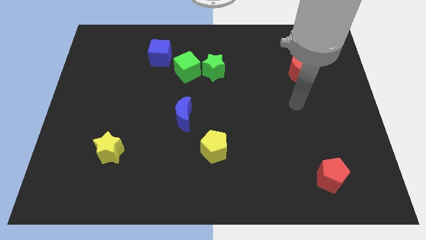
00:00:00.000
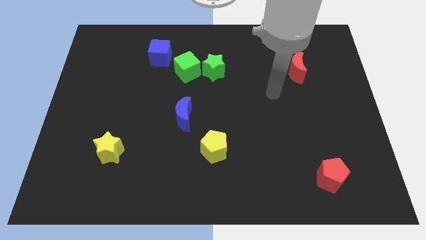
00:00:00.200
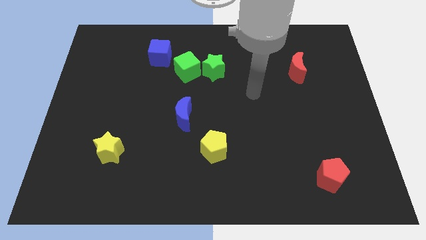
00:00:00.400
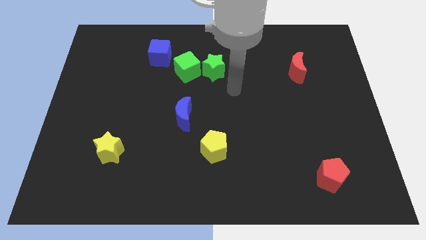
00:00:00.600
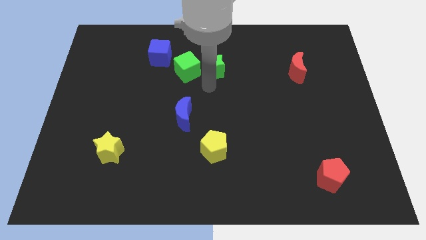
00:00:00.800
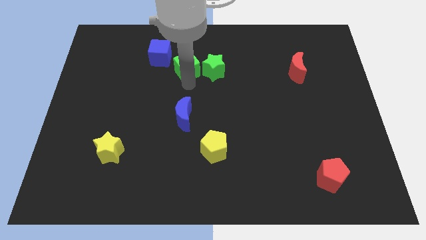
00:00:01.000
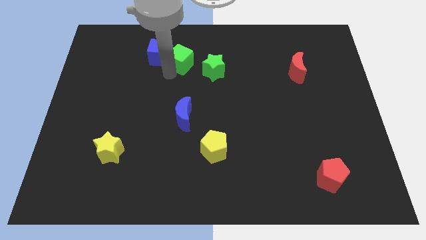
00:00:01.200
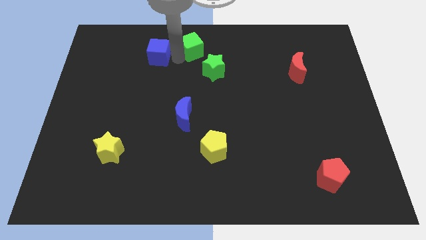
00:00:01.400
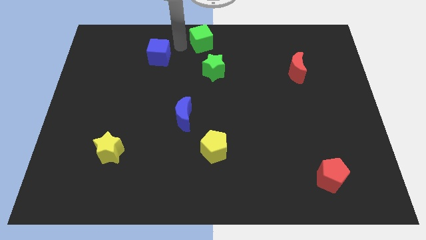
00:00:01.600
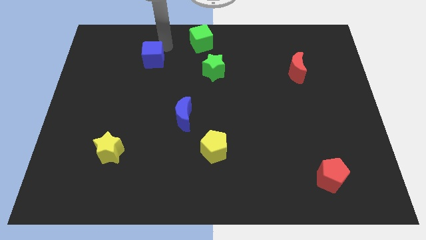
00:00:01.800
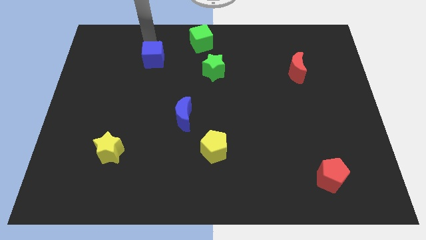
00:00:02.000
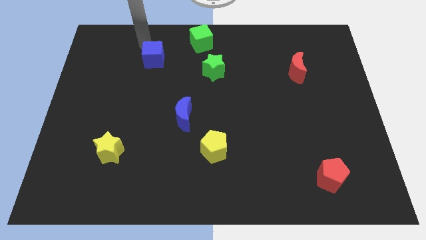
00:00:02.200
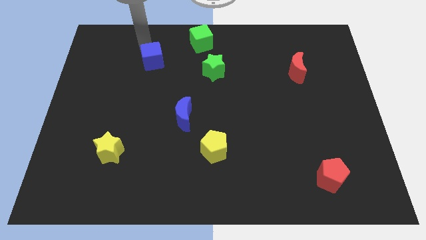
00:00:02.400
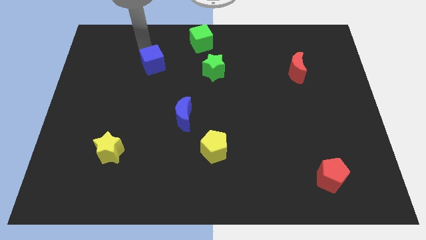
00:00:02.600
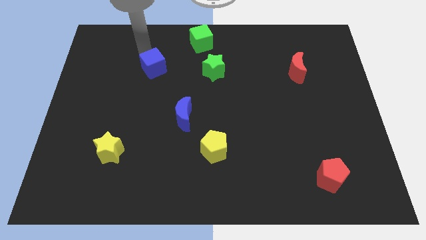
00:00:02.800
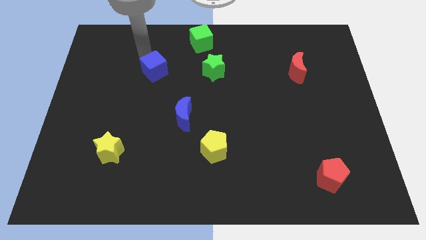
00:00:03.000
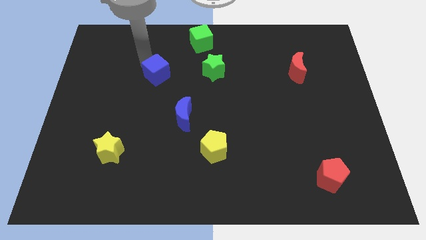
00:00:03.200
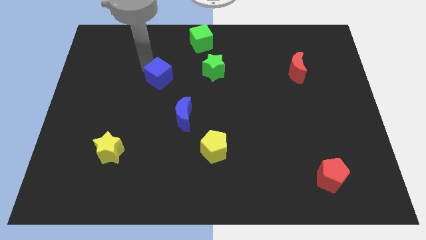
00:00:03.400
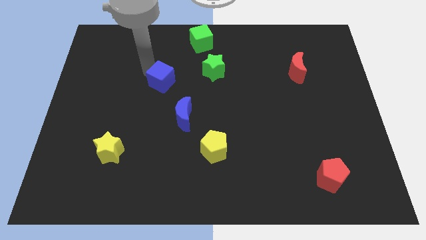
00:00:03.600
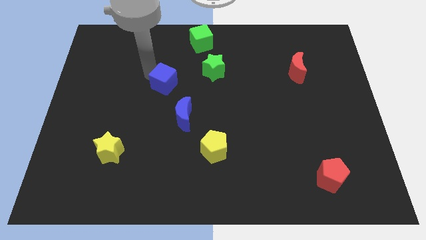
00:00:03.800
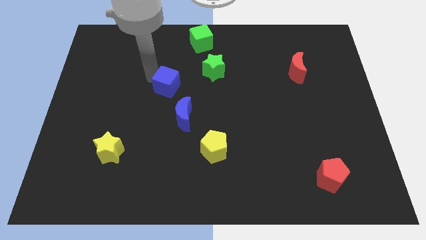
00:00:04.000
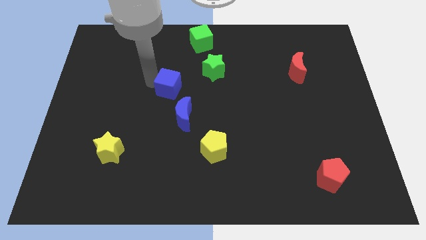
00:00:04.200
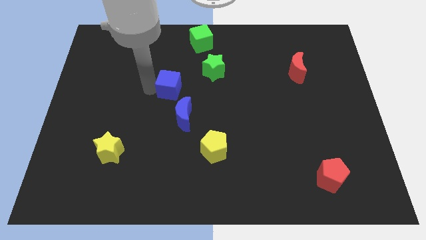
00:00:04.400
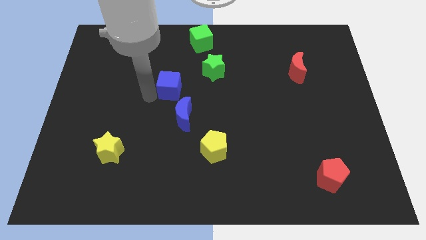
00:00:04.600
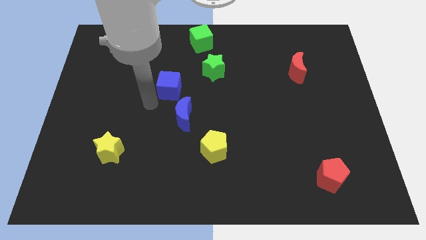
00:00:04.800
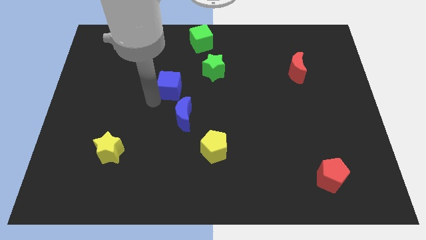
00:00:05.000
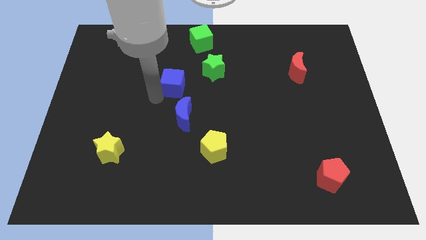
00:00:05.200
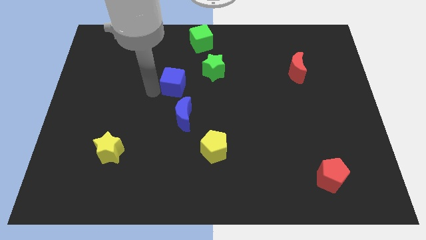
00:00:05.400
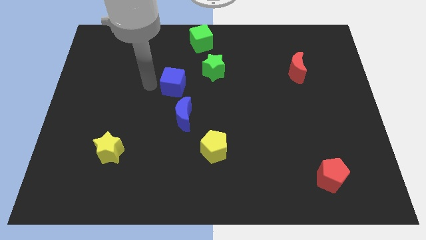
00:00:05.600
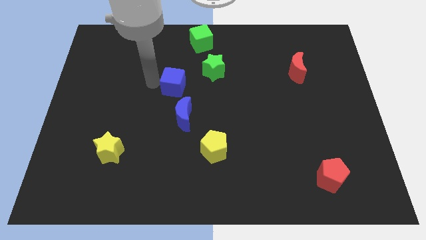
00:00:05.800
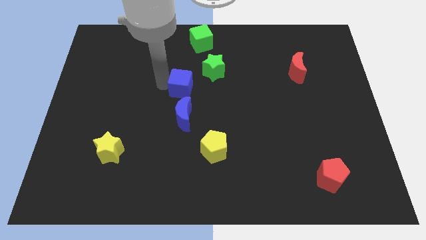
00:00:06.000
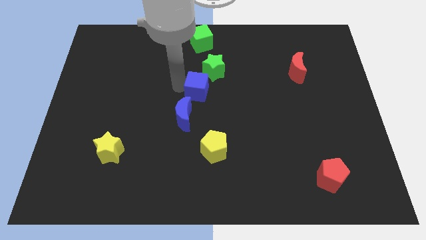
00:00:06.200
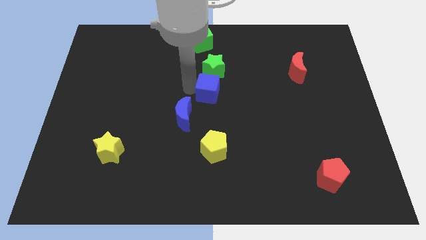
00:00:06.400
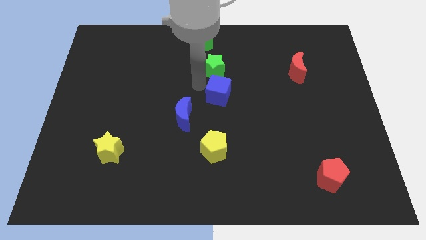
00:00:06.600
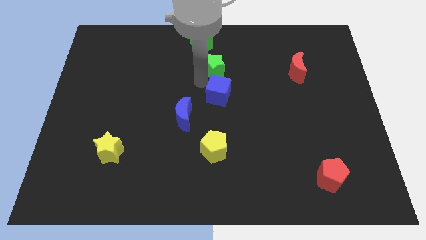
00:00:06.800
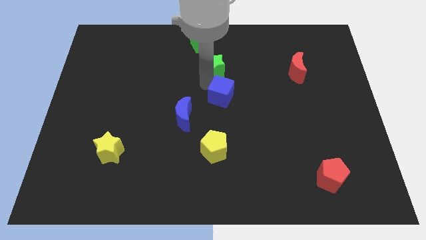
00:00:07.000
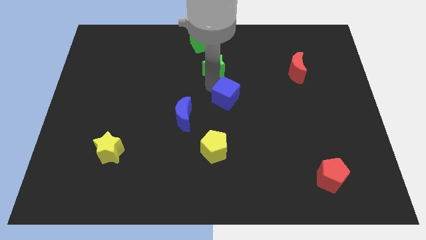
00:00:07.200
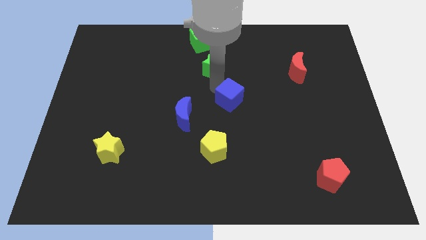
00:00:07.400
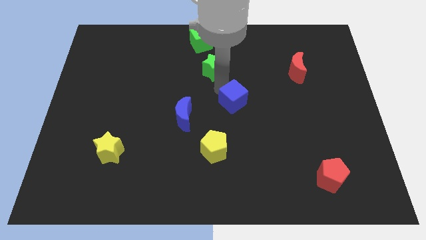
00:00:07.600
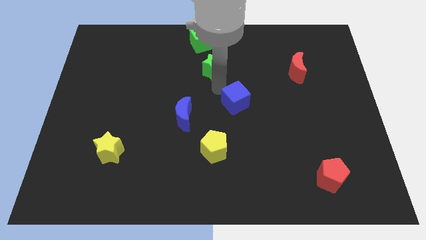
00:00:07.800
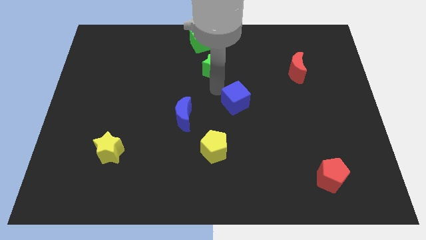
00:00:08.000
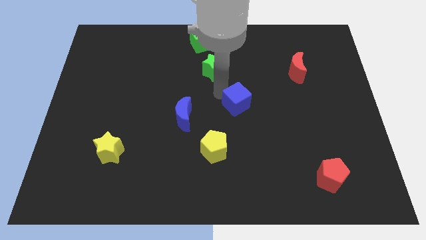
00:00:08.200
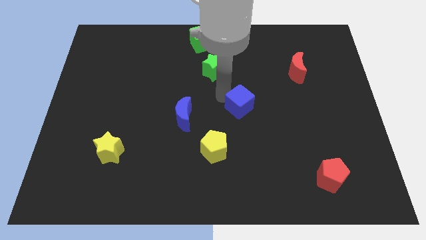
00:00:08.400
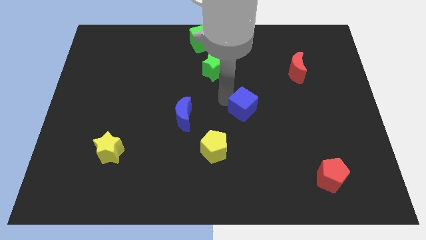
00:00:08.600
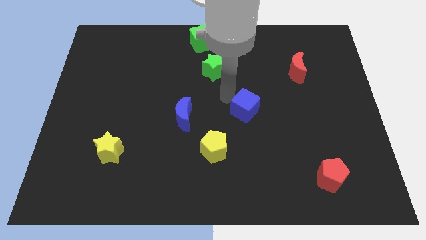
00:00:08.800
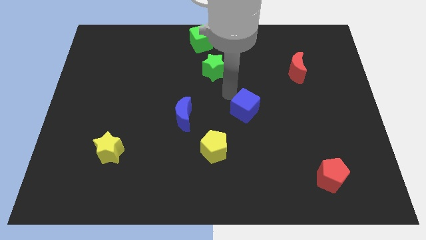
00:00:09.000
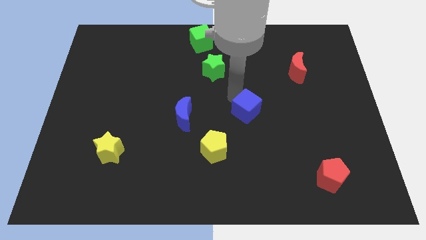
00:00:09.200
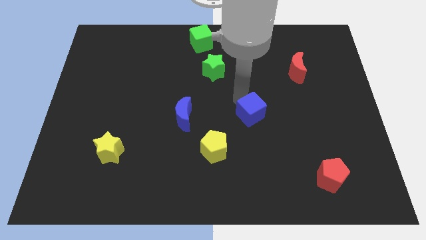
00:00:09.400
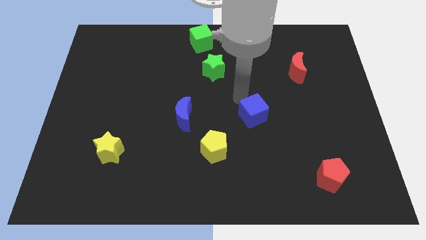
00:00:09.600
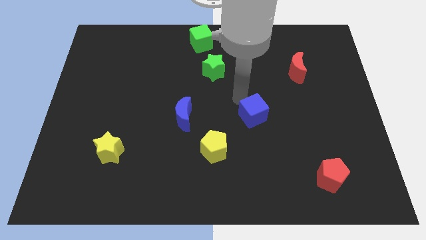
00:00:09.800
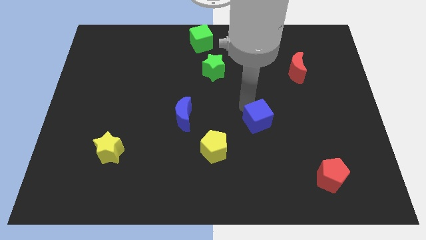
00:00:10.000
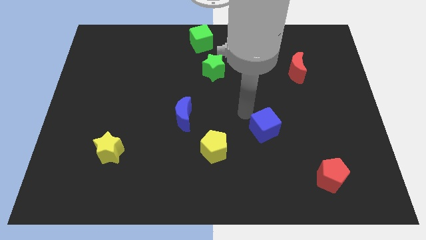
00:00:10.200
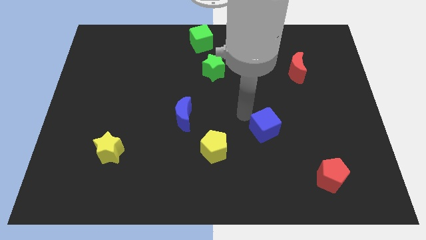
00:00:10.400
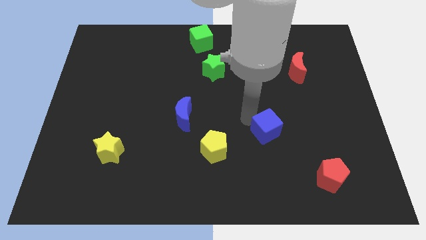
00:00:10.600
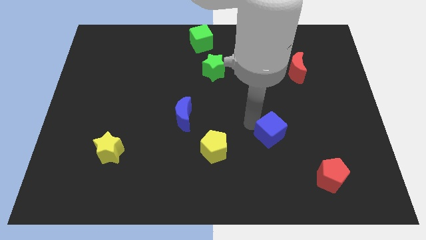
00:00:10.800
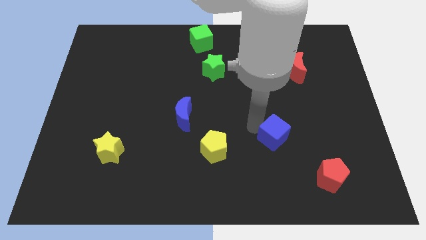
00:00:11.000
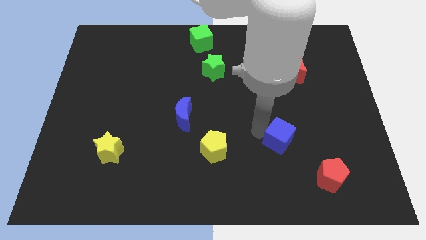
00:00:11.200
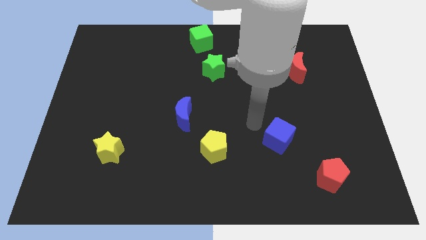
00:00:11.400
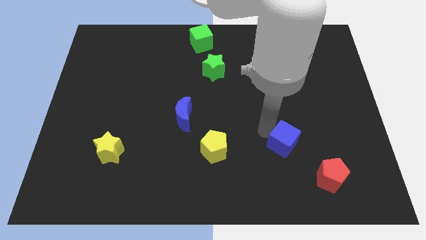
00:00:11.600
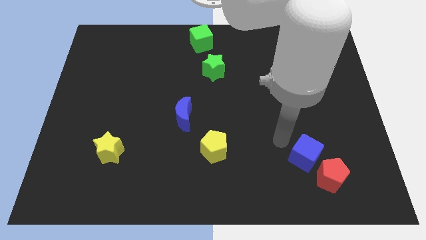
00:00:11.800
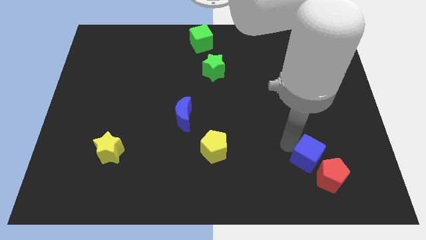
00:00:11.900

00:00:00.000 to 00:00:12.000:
move the blue cube next to the red pentagon

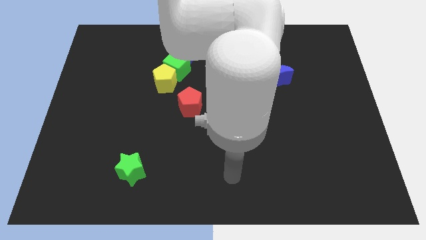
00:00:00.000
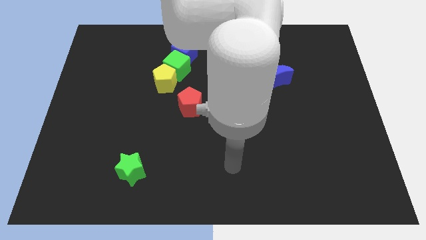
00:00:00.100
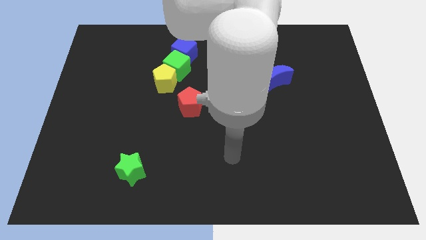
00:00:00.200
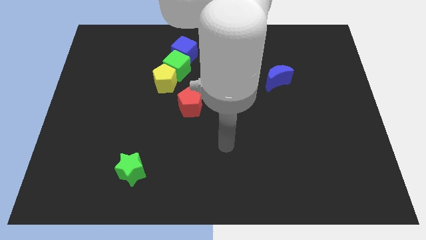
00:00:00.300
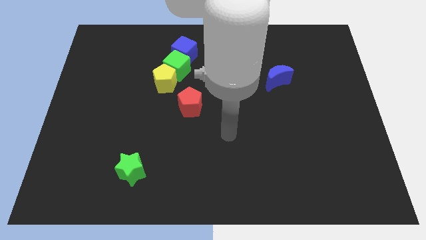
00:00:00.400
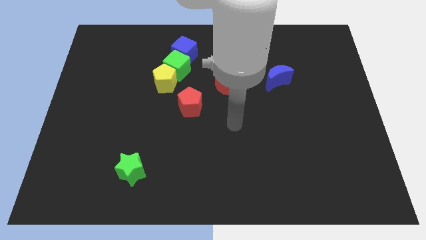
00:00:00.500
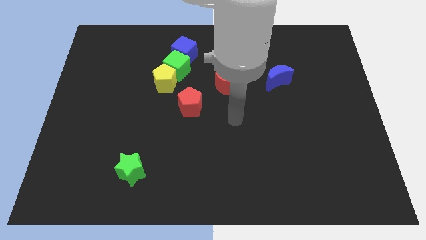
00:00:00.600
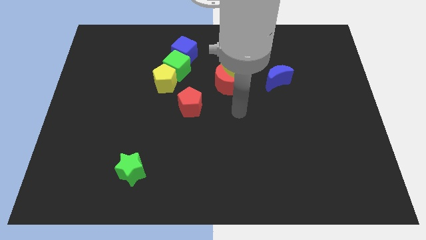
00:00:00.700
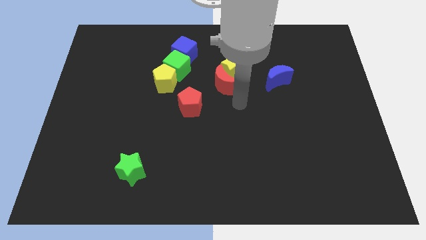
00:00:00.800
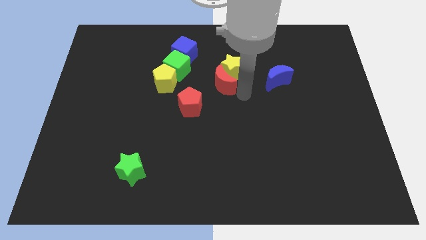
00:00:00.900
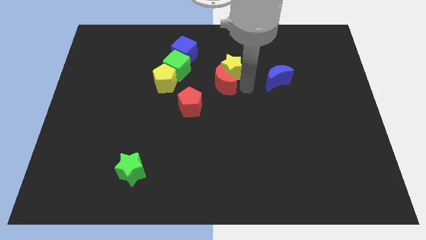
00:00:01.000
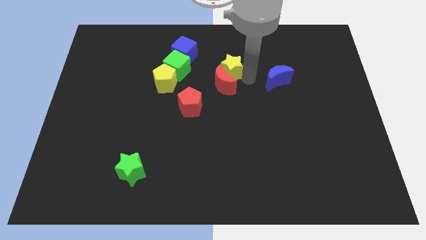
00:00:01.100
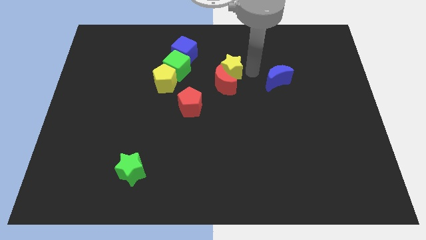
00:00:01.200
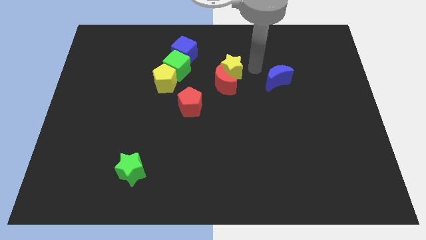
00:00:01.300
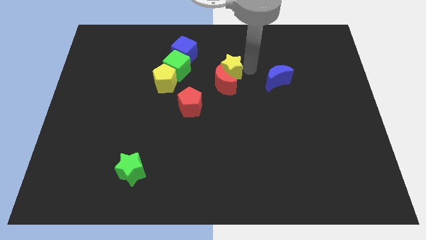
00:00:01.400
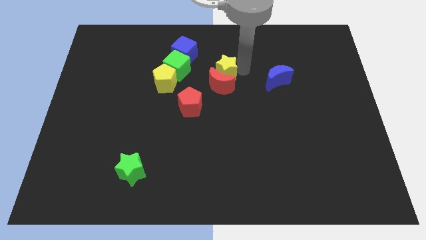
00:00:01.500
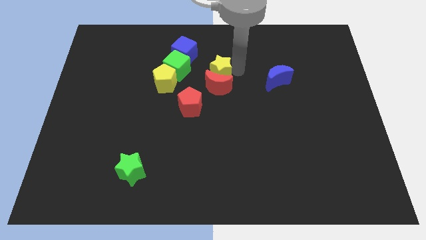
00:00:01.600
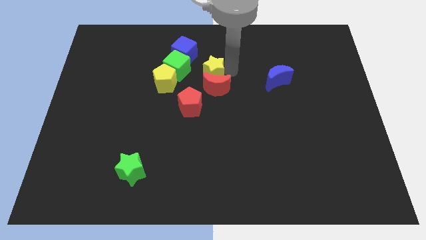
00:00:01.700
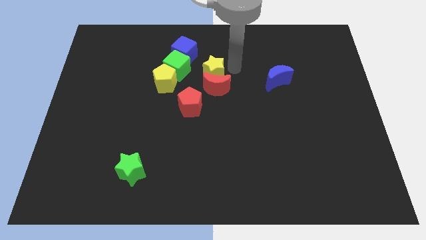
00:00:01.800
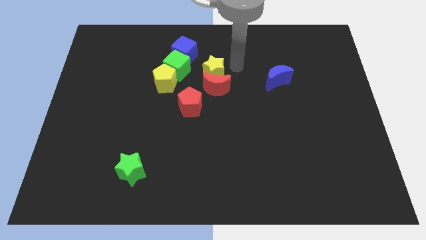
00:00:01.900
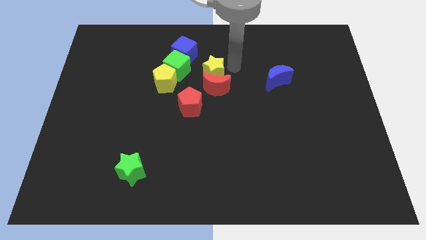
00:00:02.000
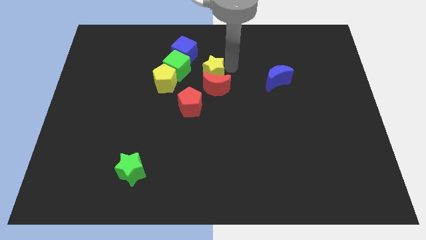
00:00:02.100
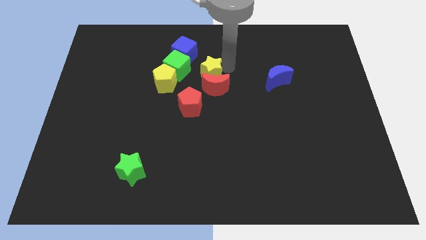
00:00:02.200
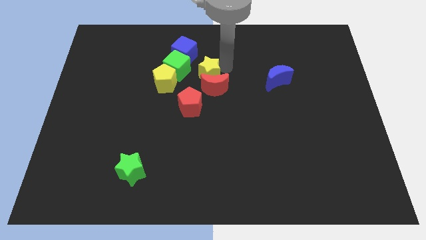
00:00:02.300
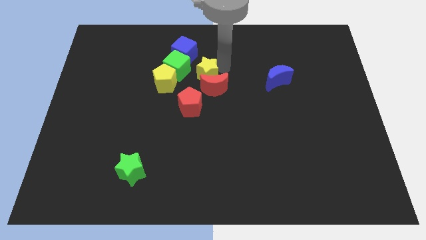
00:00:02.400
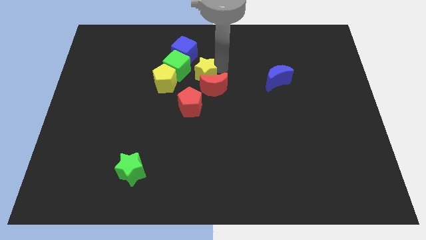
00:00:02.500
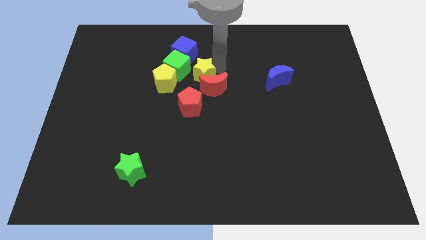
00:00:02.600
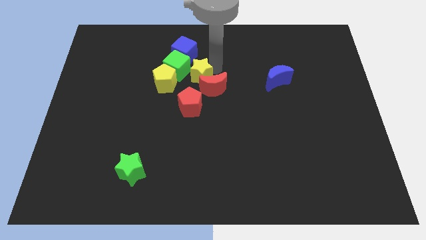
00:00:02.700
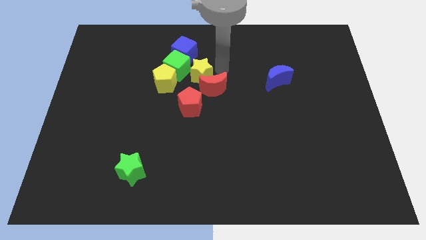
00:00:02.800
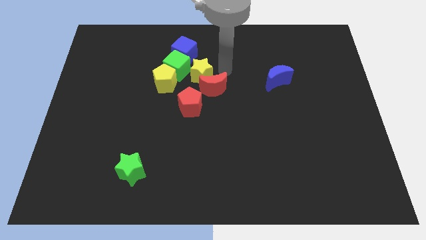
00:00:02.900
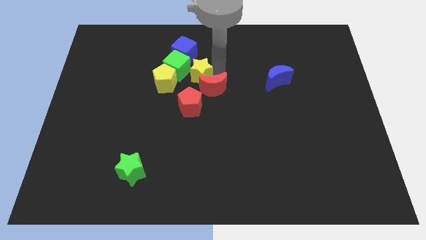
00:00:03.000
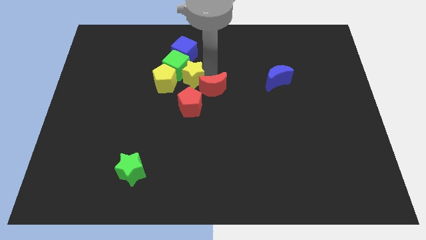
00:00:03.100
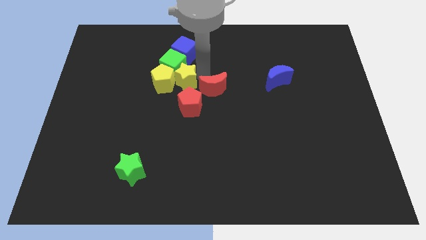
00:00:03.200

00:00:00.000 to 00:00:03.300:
put the yellow star next to the yellow pentagon
